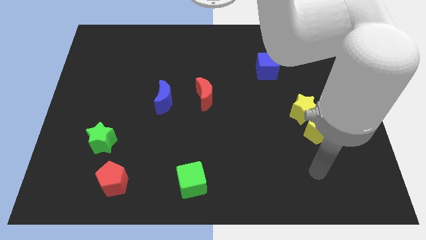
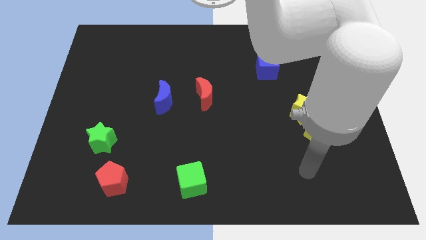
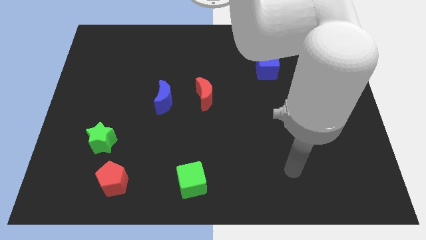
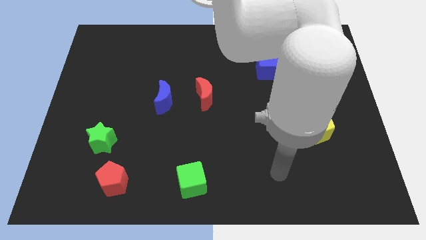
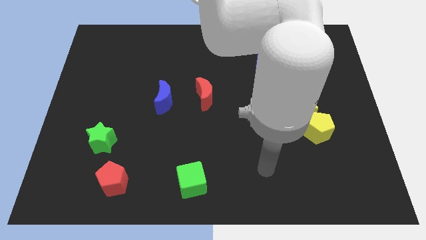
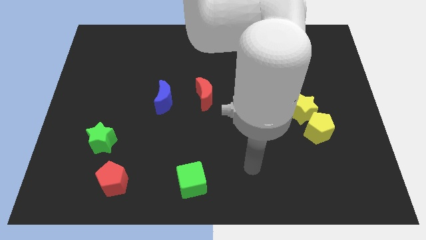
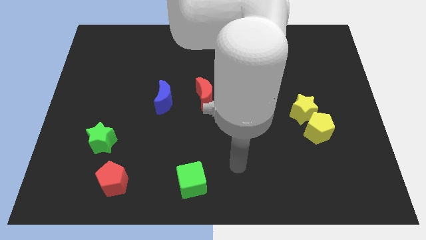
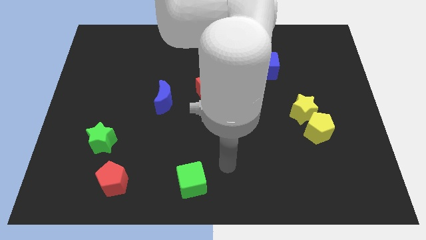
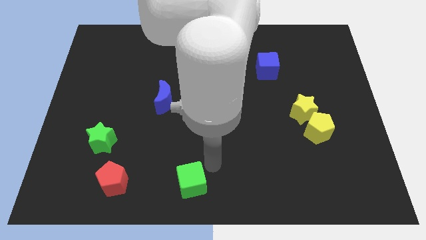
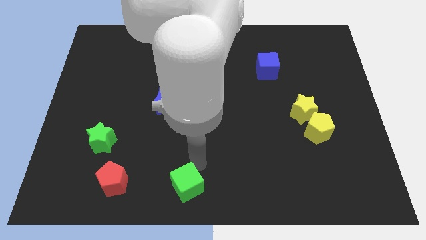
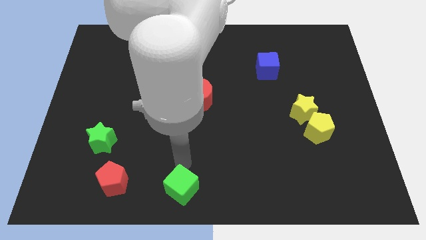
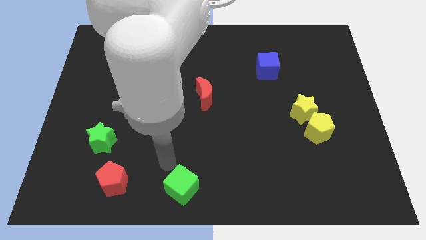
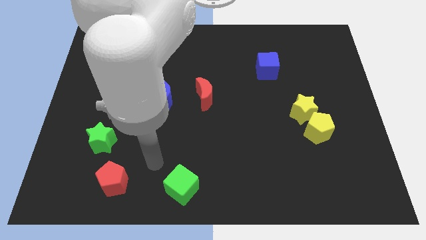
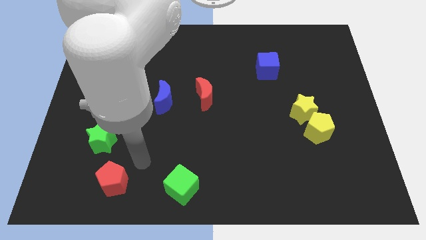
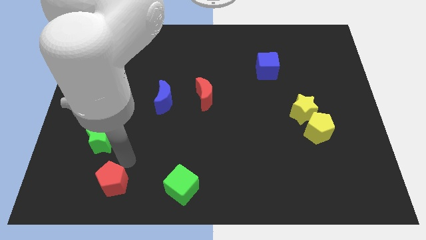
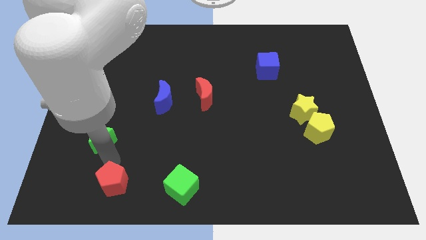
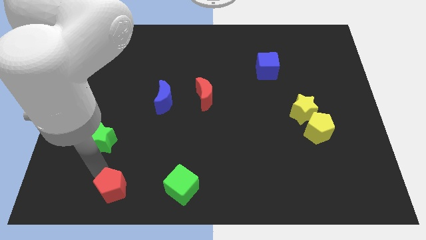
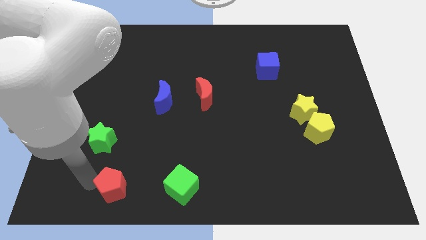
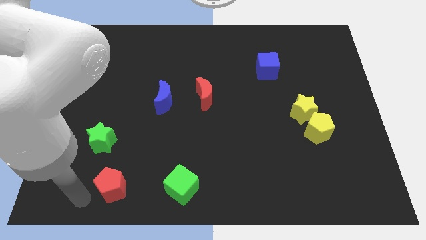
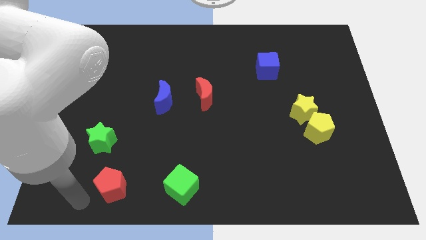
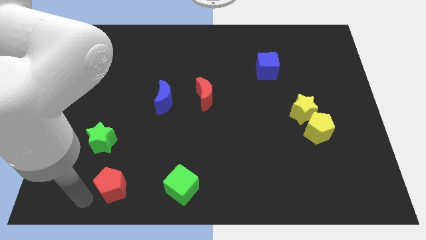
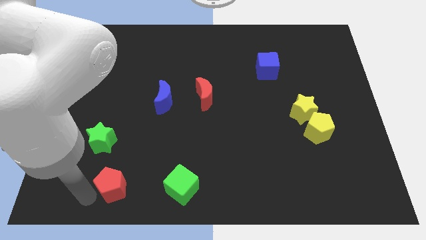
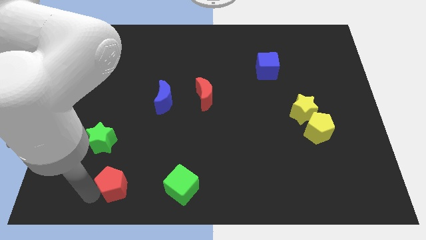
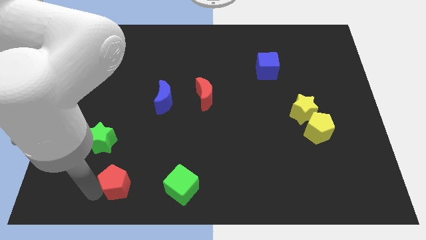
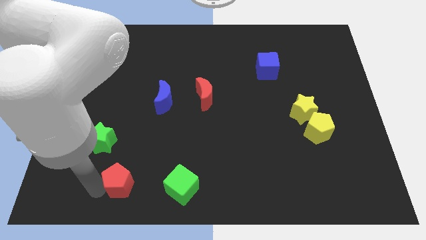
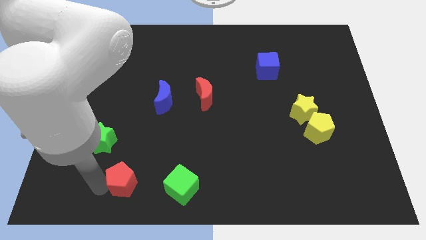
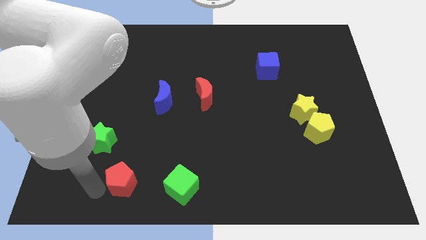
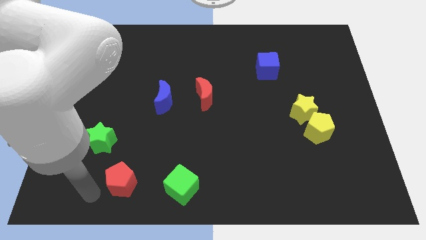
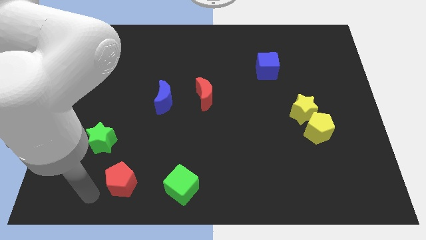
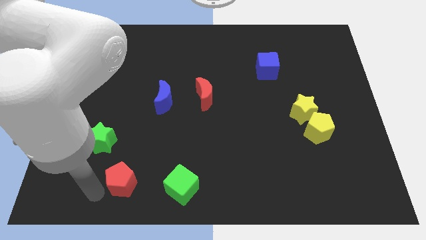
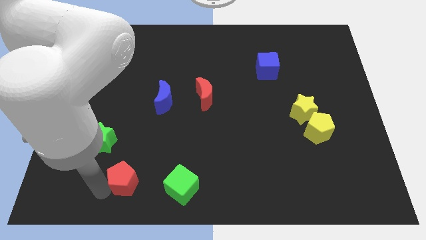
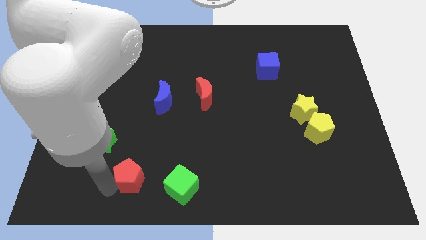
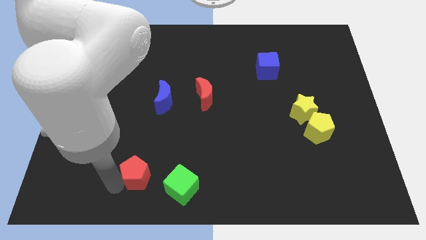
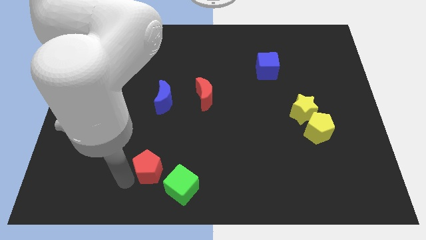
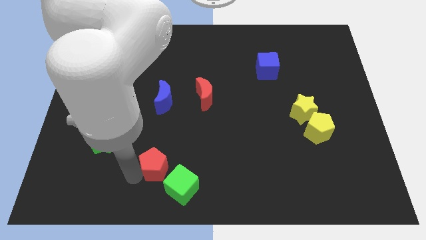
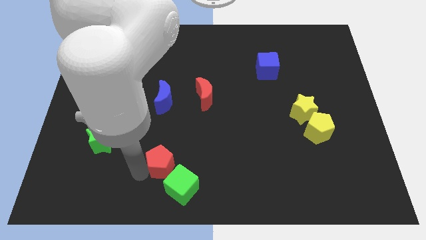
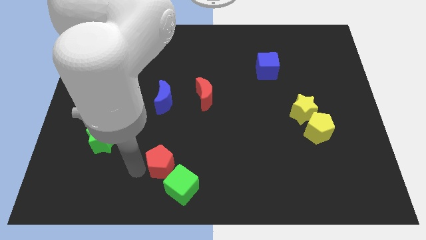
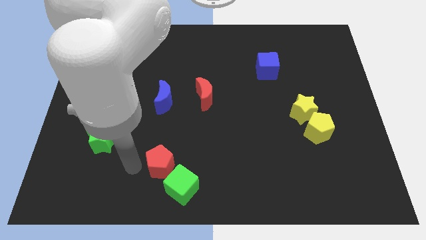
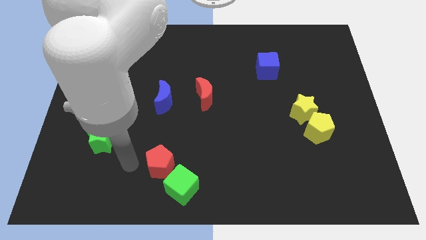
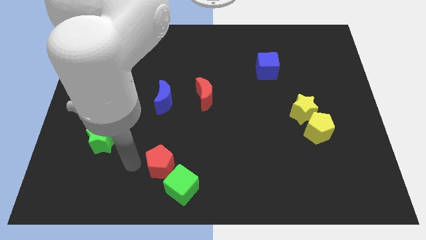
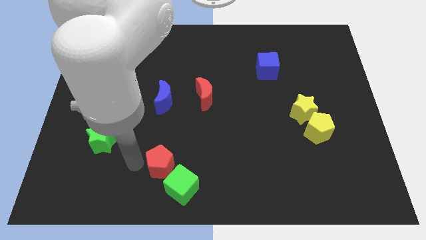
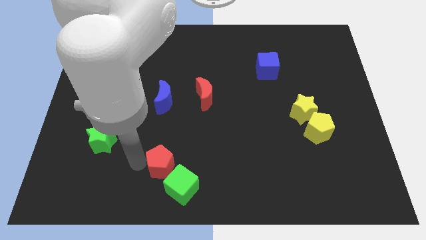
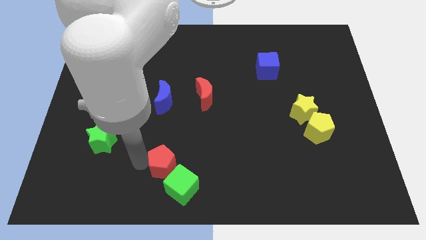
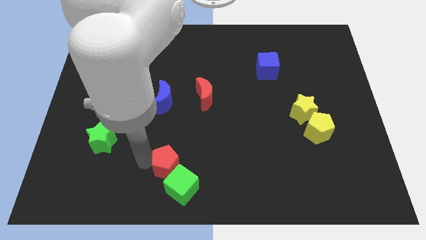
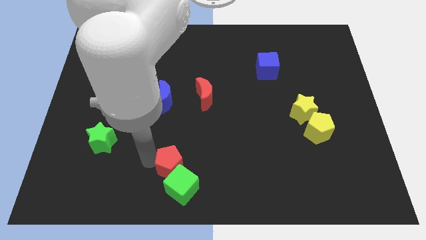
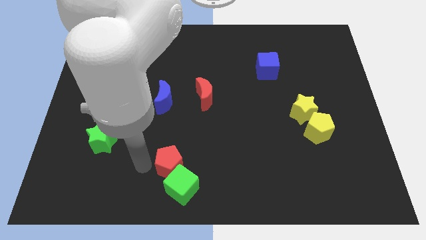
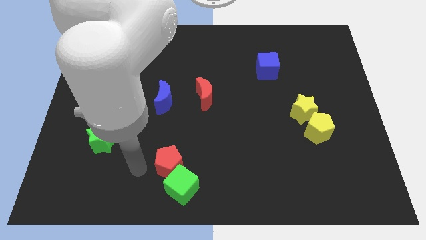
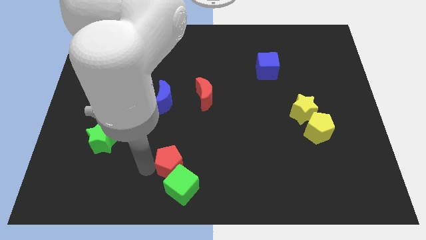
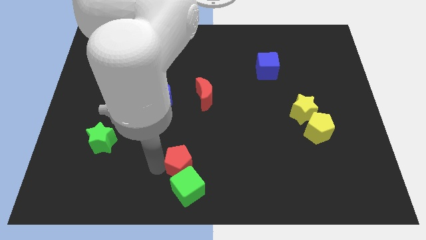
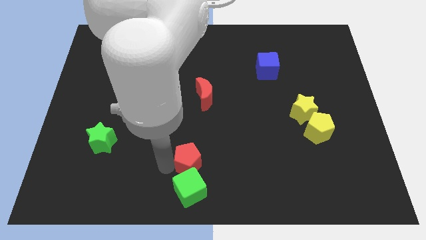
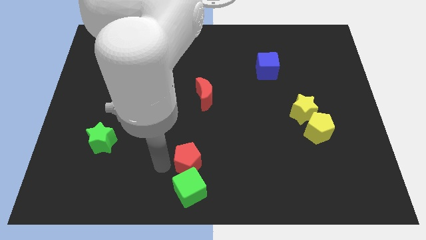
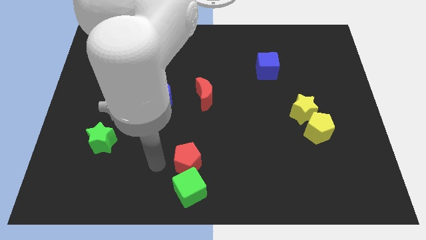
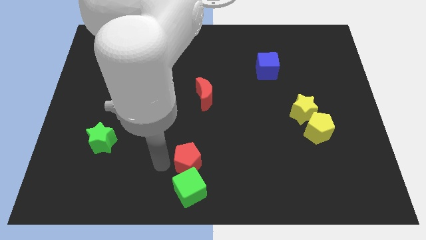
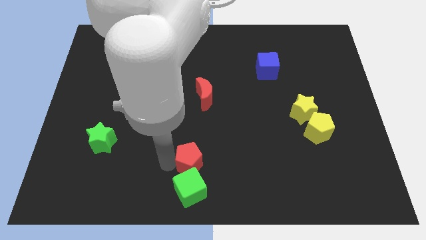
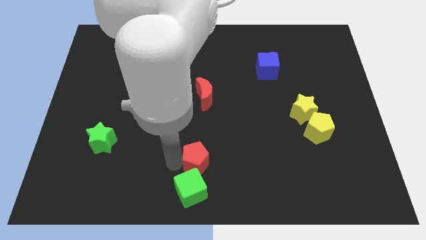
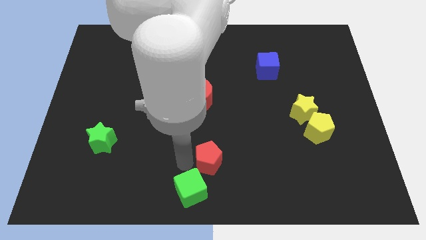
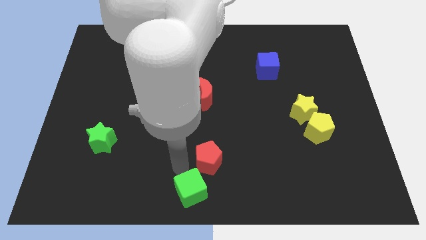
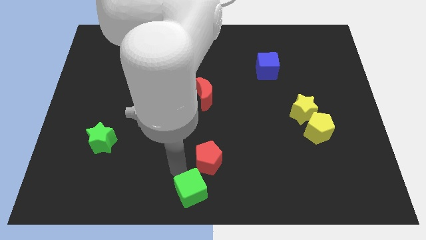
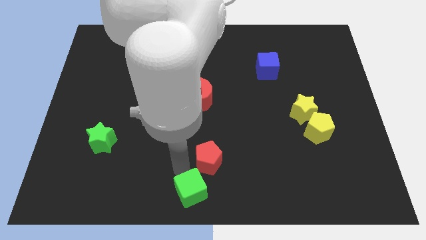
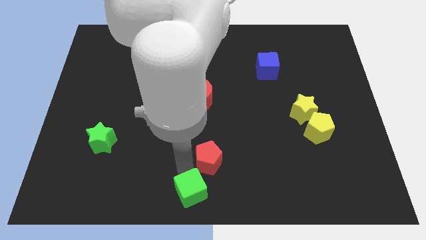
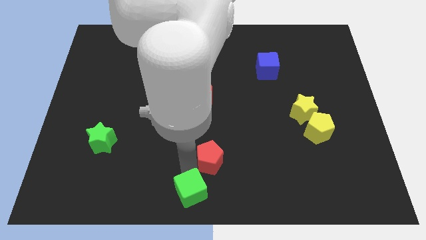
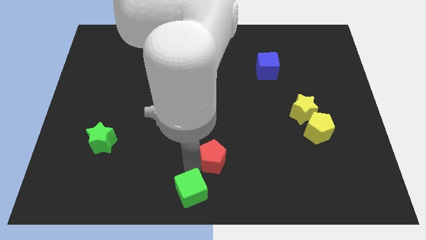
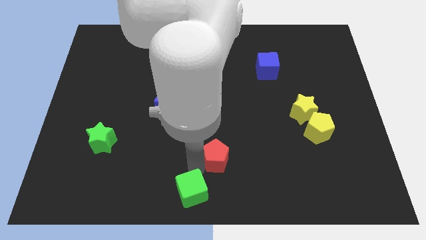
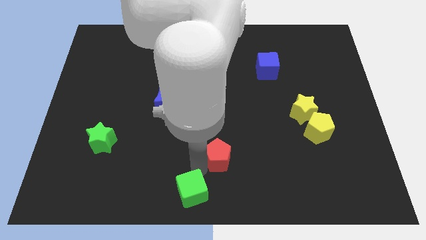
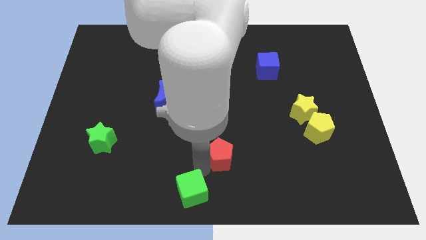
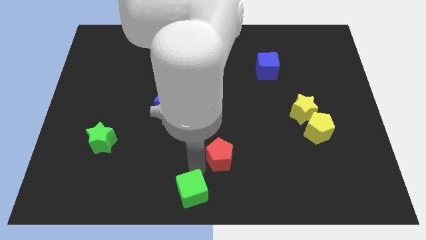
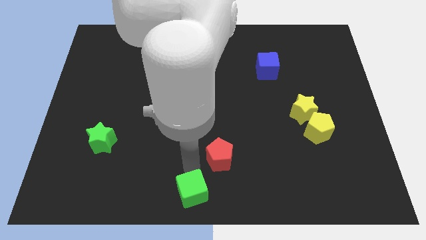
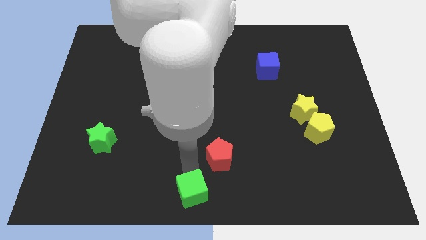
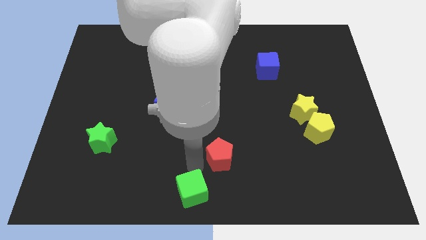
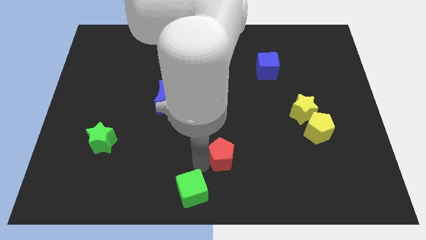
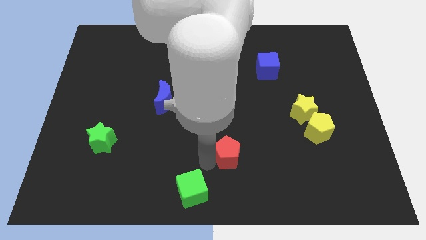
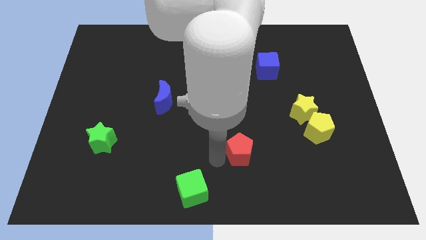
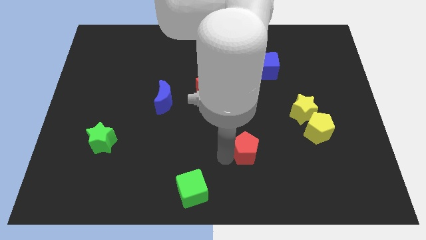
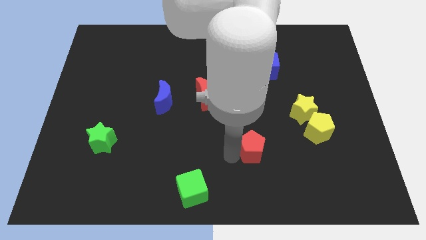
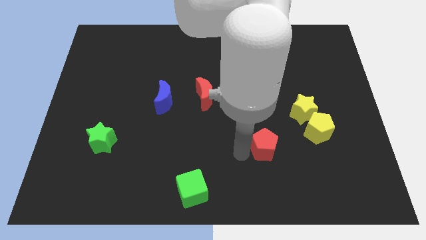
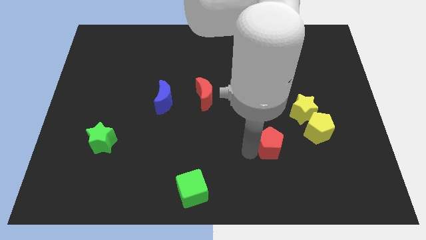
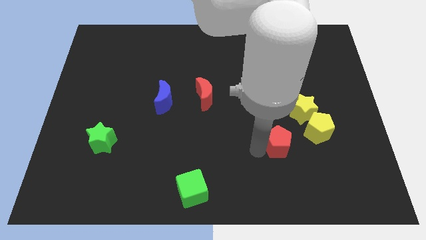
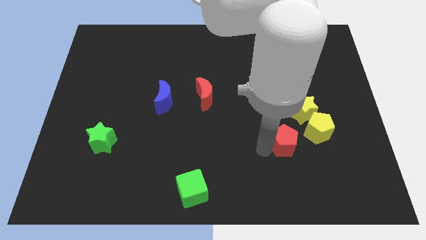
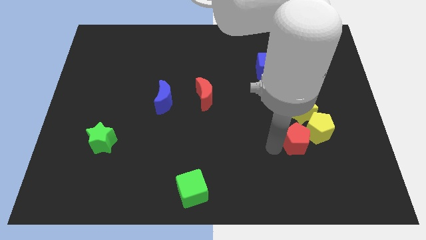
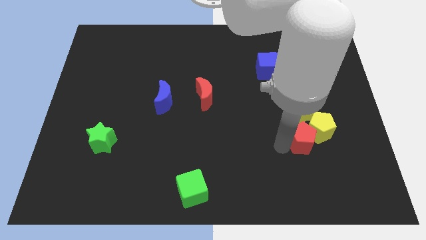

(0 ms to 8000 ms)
move the red pentagon next to the yellow pentagon
